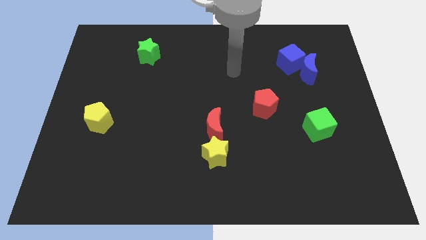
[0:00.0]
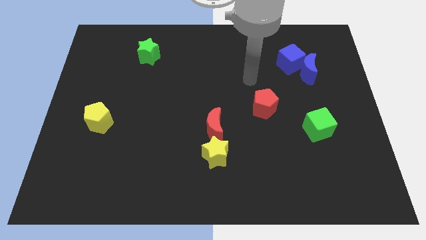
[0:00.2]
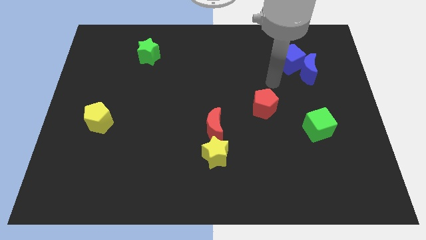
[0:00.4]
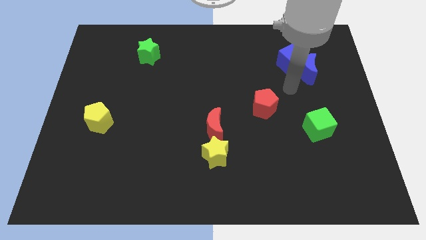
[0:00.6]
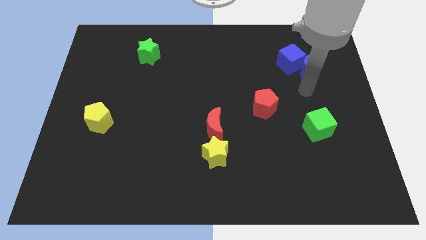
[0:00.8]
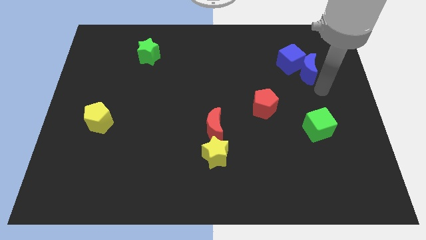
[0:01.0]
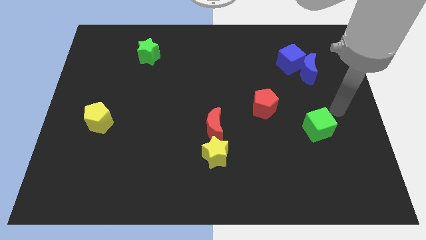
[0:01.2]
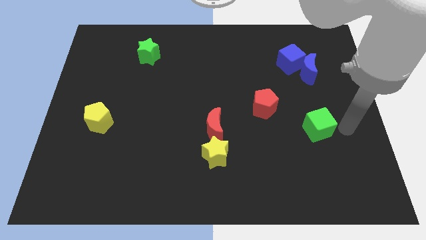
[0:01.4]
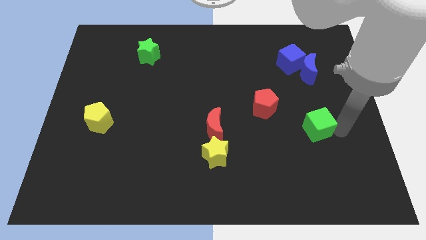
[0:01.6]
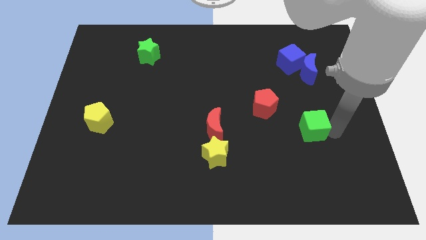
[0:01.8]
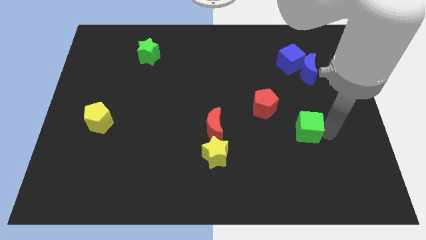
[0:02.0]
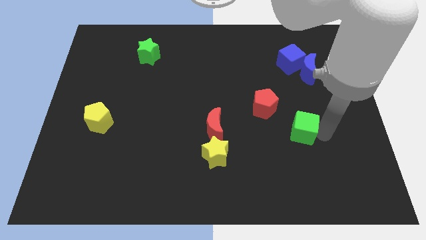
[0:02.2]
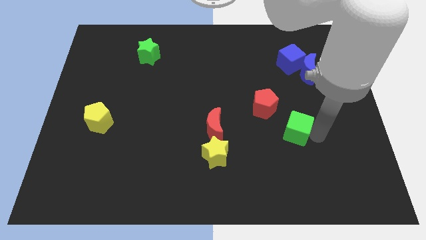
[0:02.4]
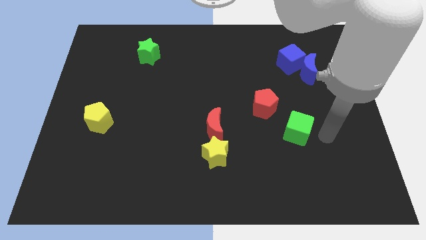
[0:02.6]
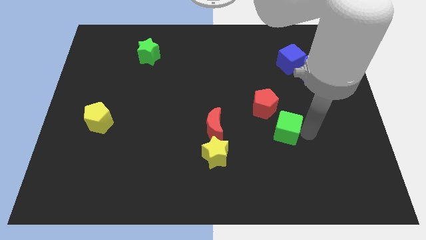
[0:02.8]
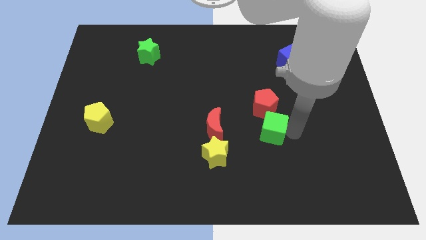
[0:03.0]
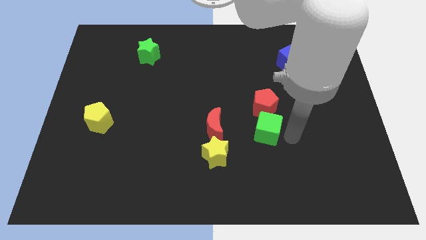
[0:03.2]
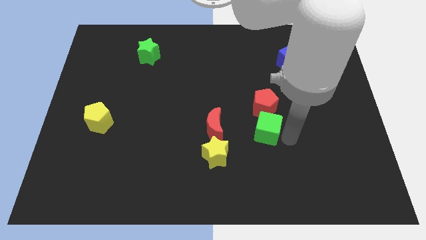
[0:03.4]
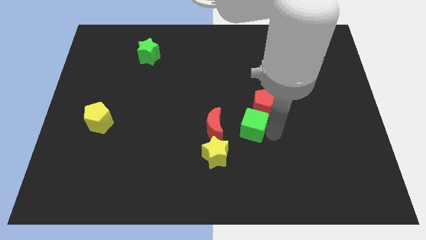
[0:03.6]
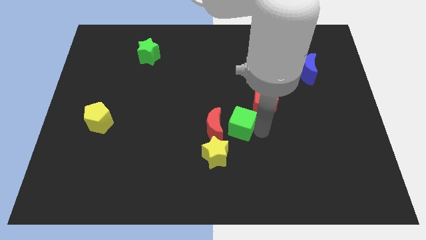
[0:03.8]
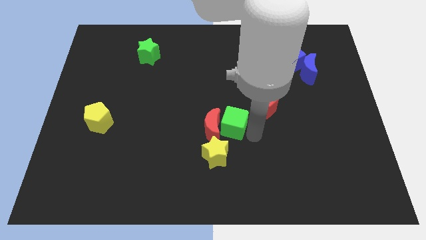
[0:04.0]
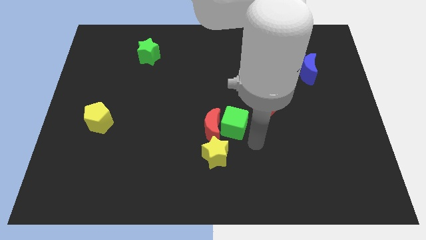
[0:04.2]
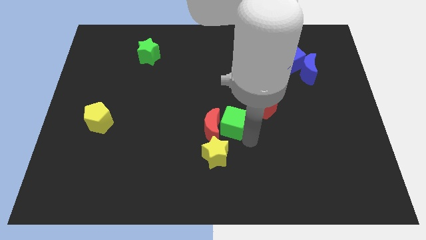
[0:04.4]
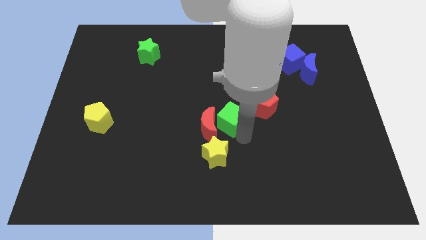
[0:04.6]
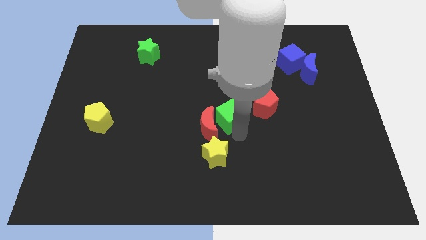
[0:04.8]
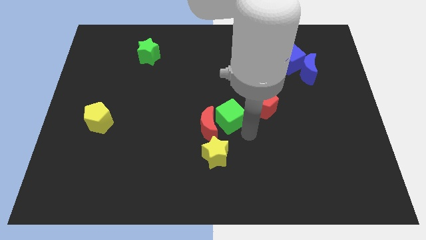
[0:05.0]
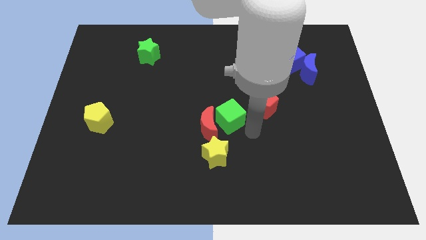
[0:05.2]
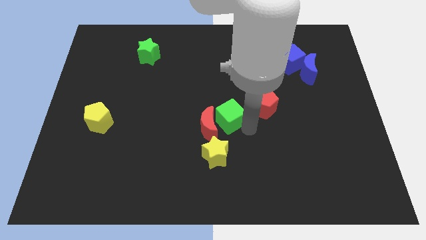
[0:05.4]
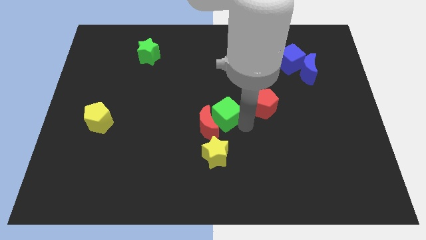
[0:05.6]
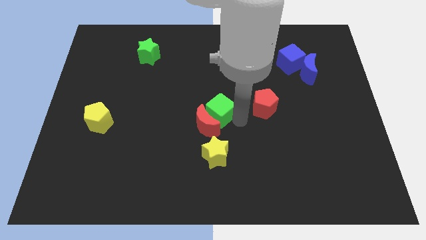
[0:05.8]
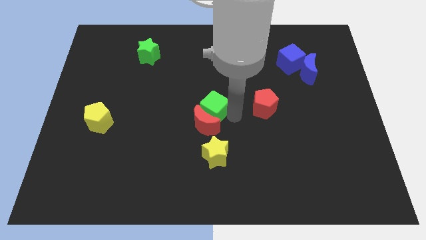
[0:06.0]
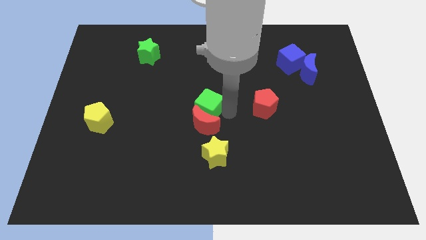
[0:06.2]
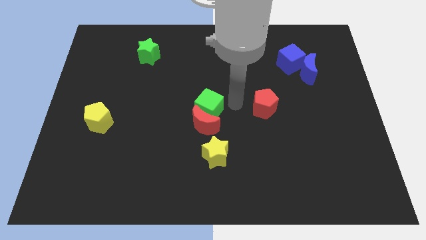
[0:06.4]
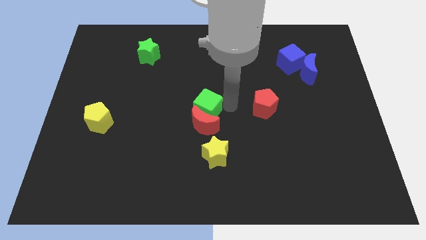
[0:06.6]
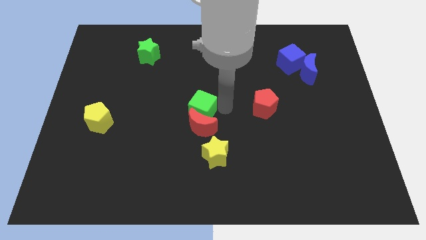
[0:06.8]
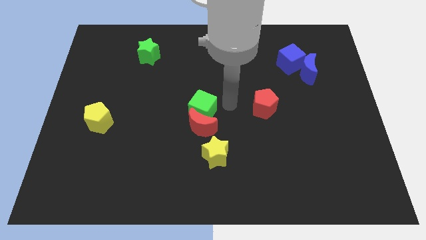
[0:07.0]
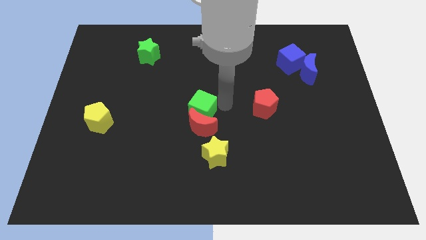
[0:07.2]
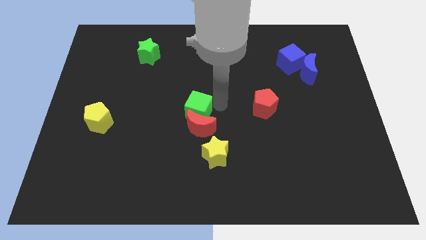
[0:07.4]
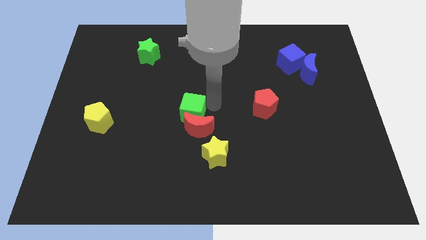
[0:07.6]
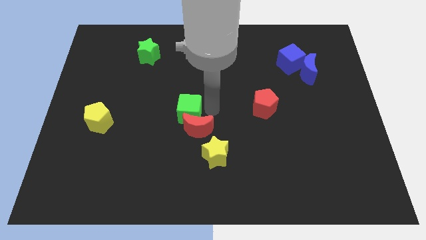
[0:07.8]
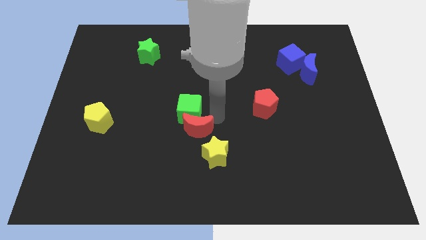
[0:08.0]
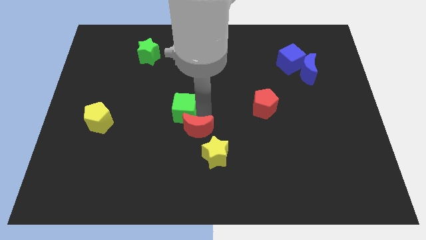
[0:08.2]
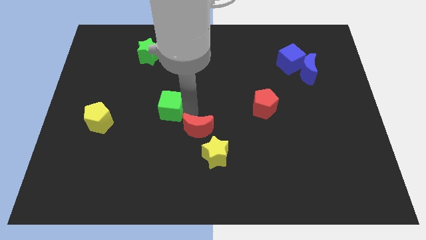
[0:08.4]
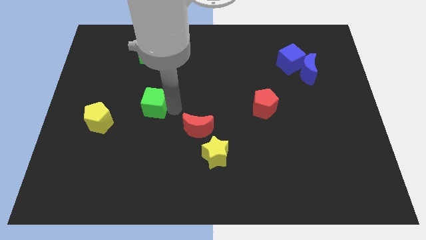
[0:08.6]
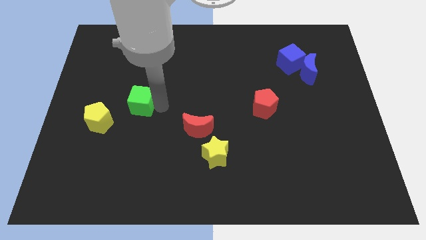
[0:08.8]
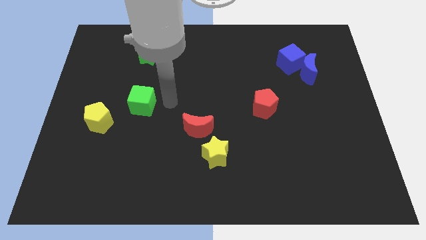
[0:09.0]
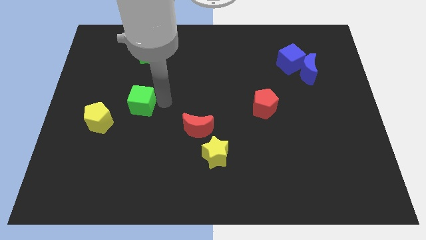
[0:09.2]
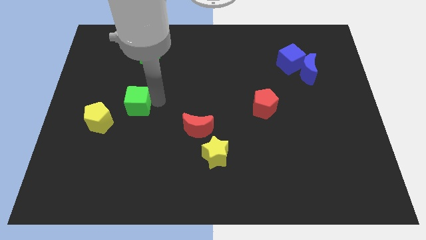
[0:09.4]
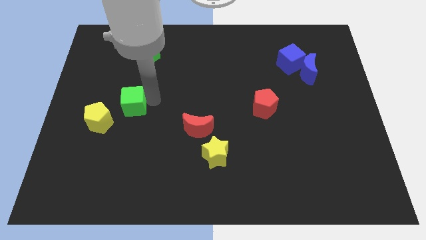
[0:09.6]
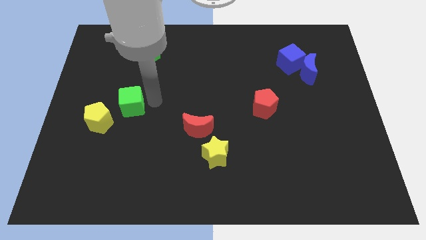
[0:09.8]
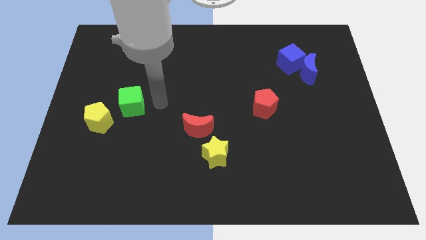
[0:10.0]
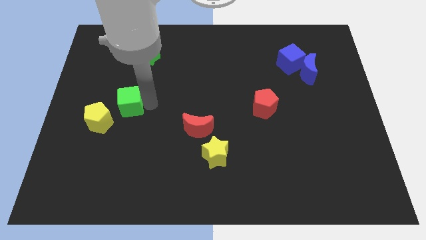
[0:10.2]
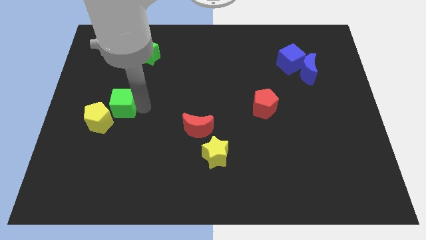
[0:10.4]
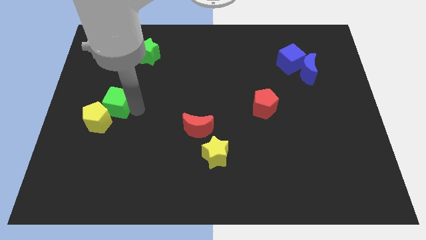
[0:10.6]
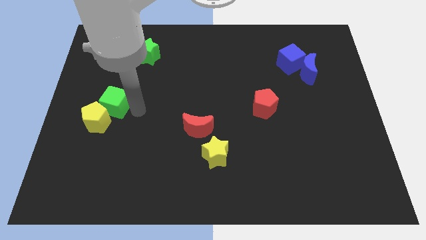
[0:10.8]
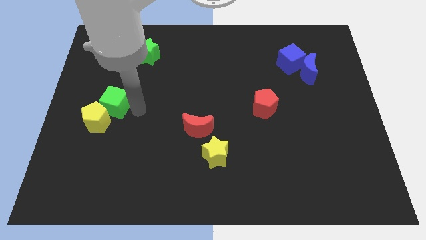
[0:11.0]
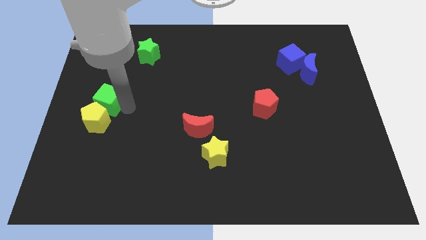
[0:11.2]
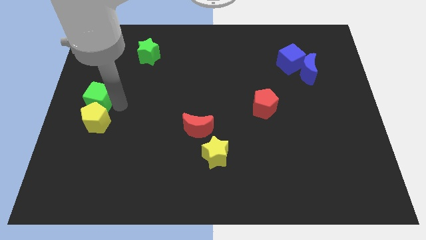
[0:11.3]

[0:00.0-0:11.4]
push the green cube to the left side

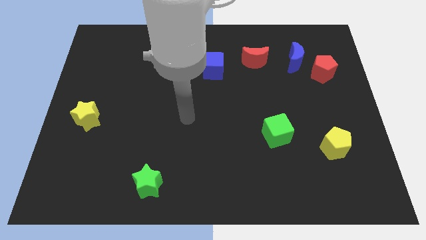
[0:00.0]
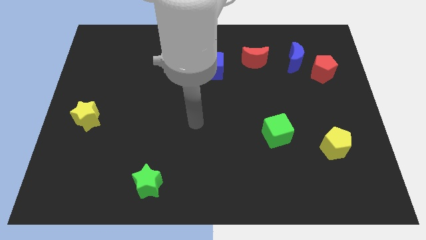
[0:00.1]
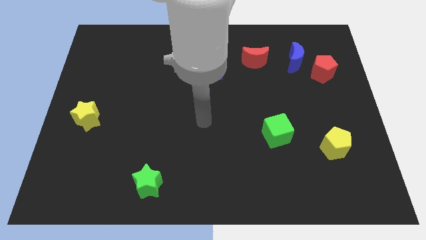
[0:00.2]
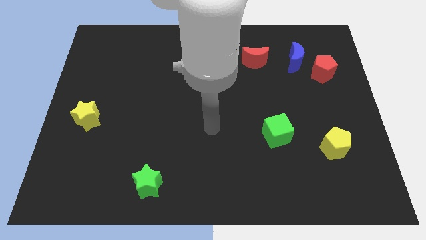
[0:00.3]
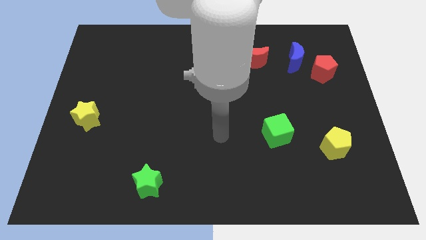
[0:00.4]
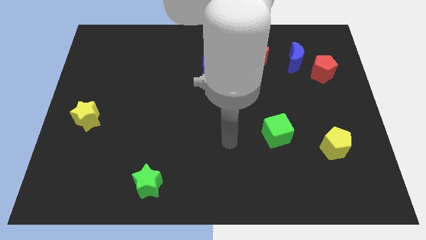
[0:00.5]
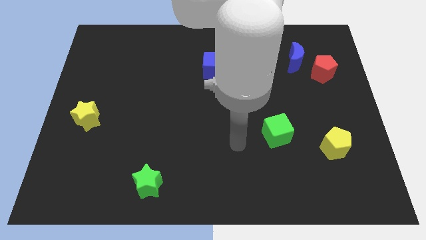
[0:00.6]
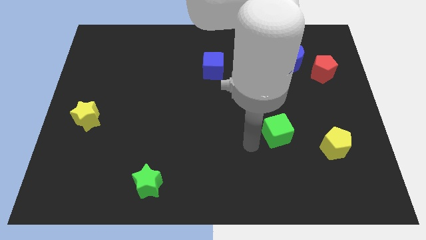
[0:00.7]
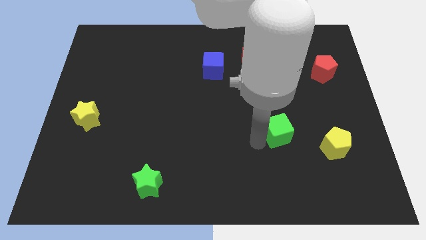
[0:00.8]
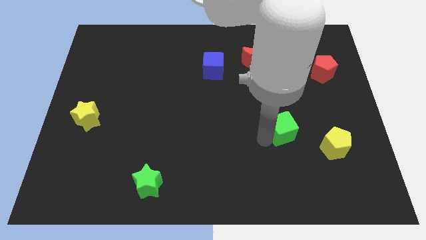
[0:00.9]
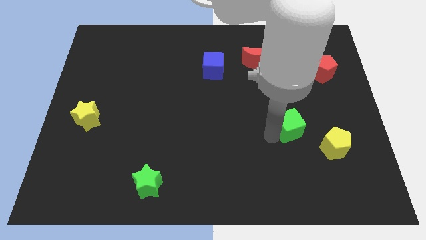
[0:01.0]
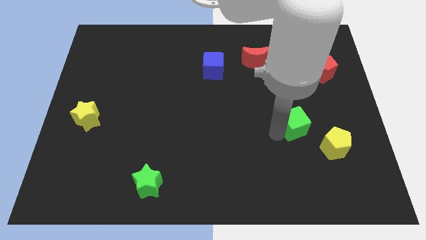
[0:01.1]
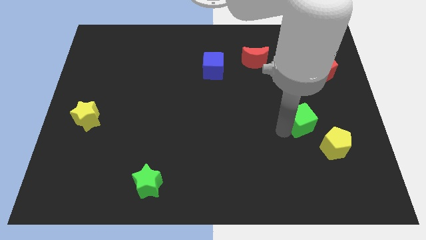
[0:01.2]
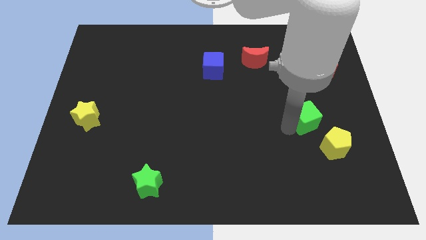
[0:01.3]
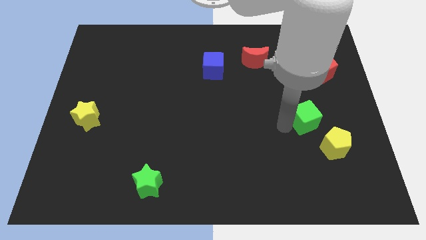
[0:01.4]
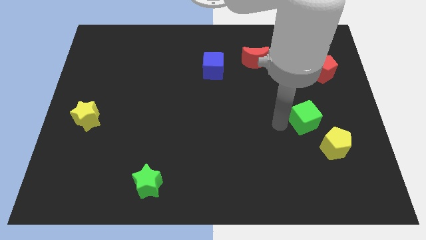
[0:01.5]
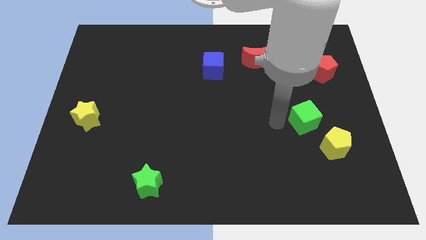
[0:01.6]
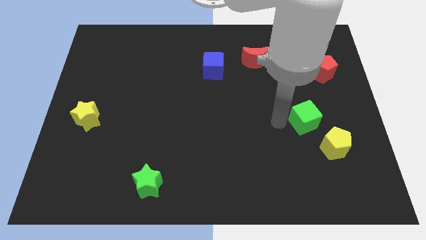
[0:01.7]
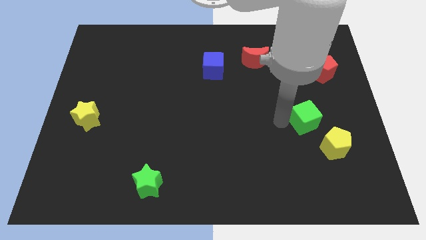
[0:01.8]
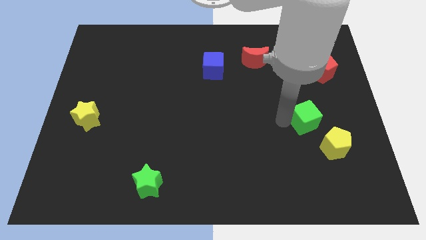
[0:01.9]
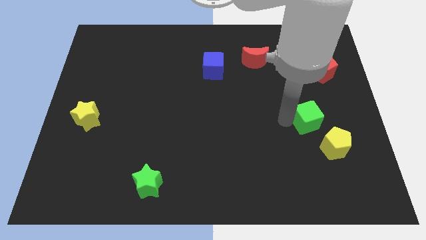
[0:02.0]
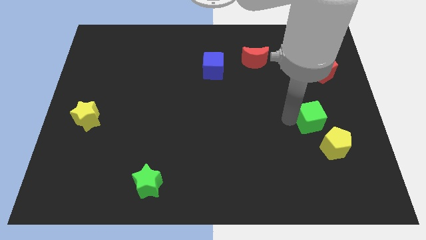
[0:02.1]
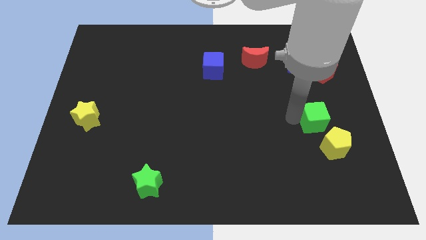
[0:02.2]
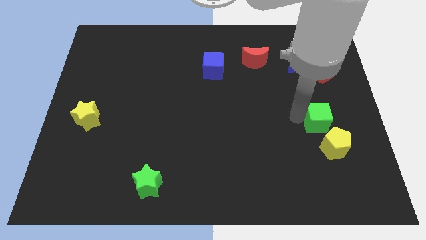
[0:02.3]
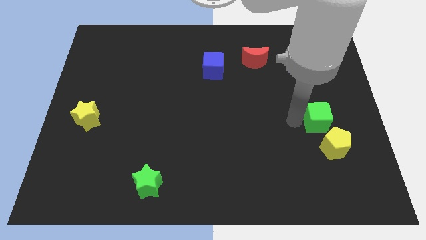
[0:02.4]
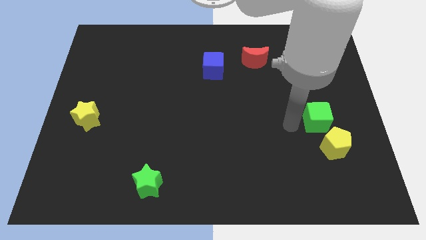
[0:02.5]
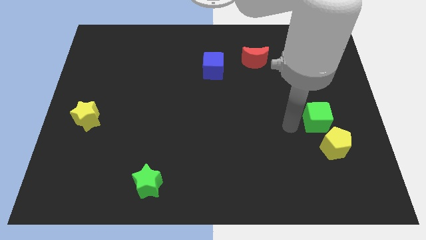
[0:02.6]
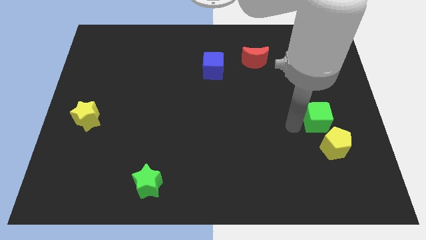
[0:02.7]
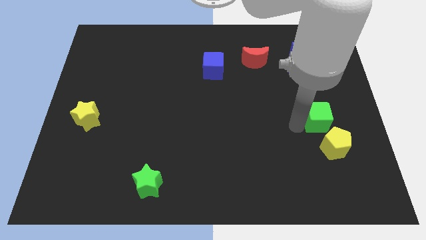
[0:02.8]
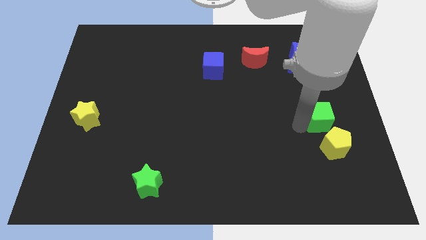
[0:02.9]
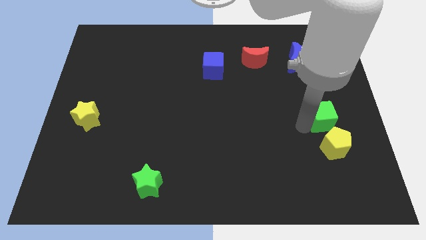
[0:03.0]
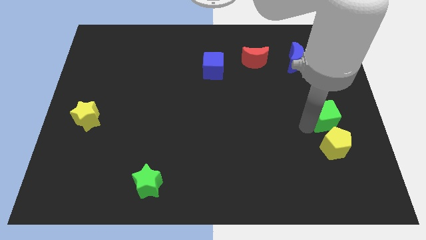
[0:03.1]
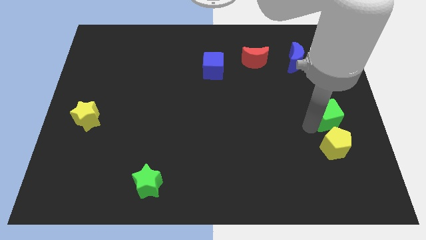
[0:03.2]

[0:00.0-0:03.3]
slide the green cube to the center right
